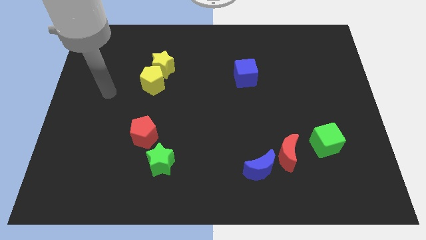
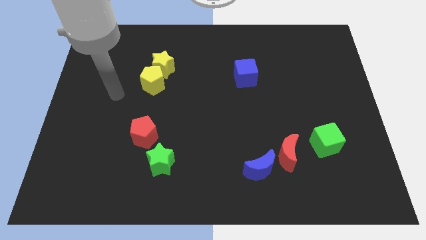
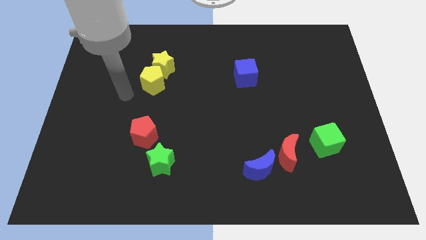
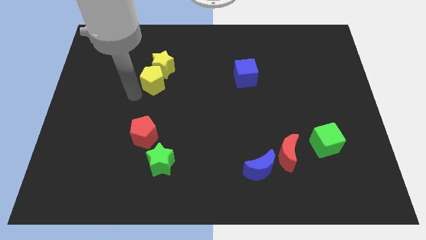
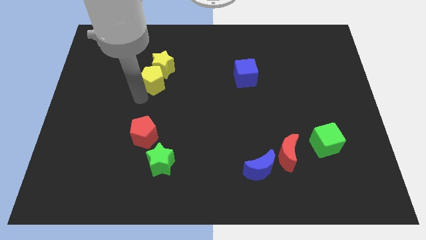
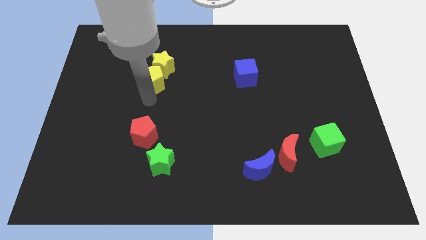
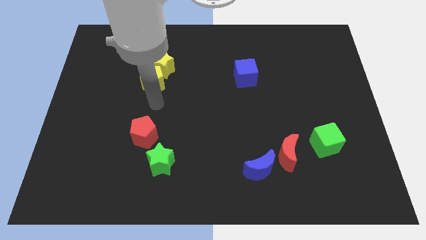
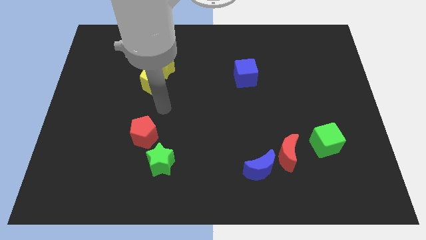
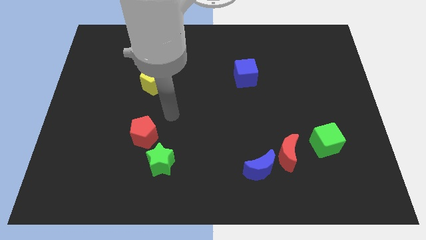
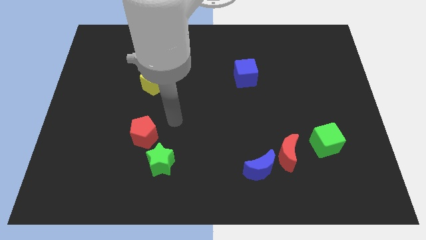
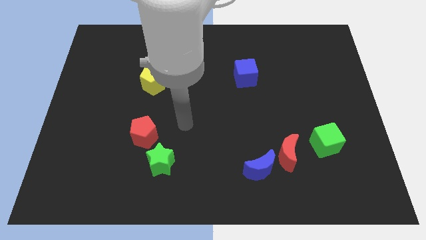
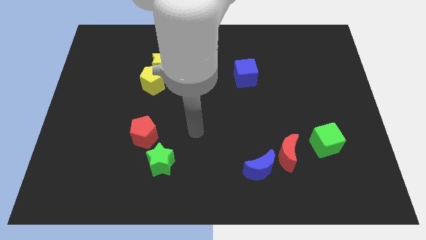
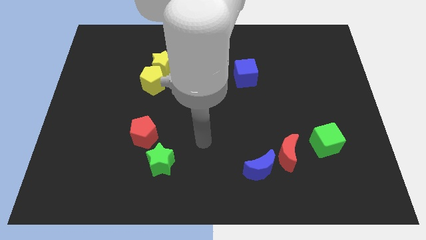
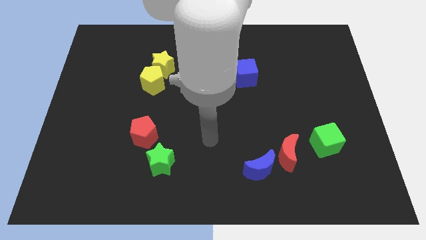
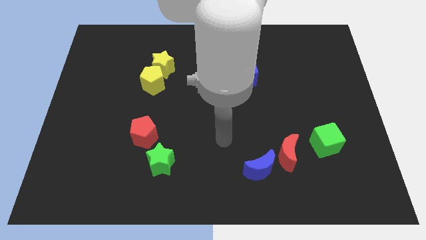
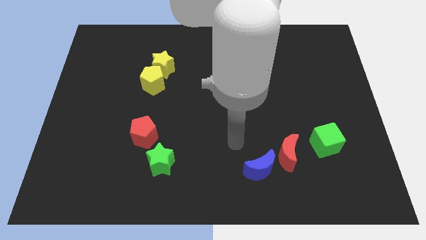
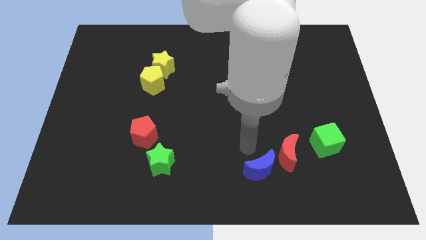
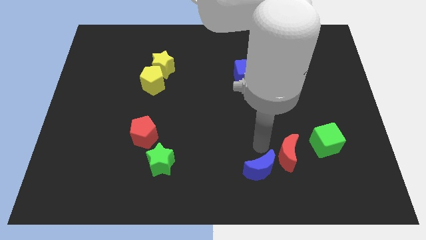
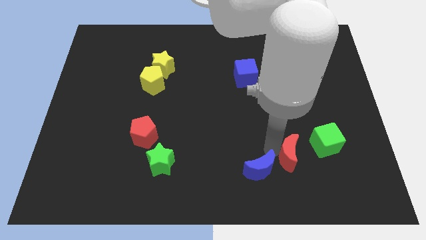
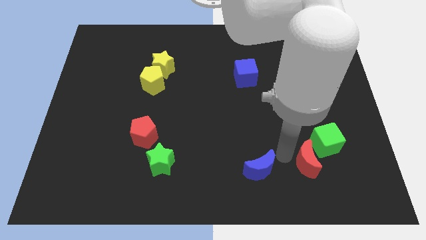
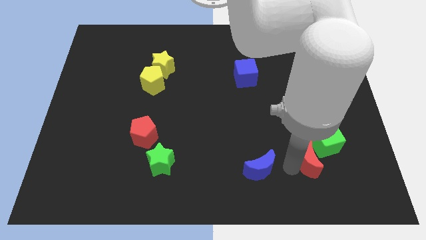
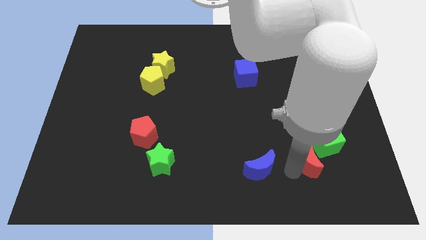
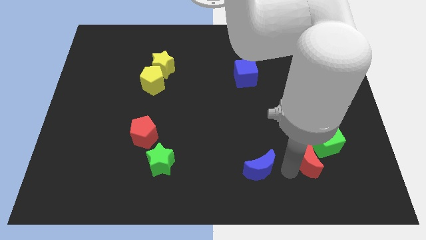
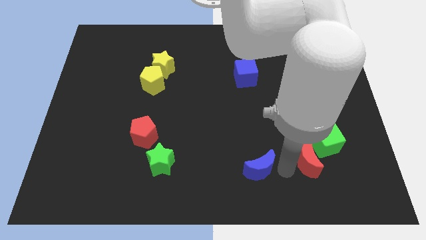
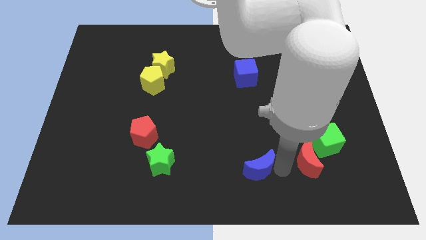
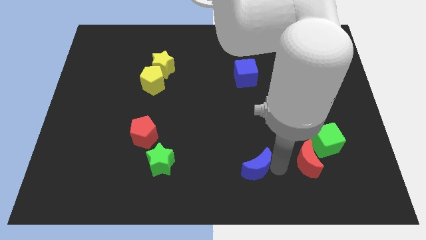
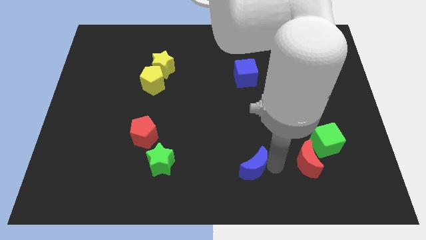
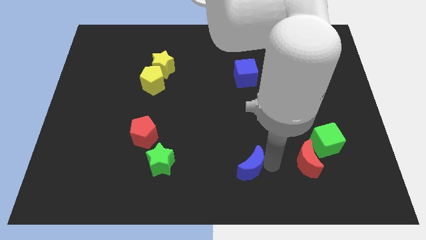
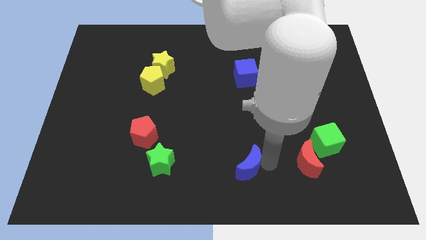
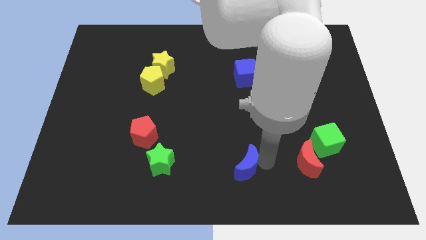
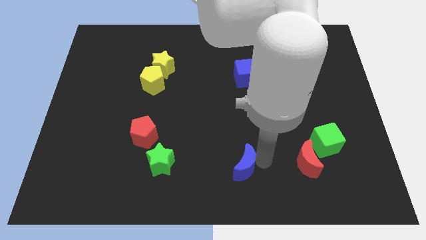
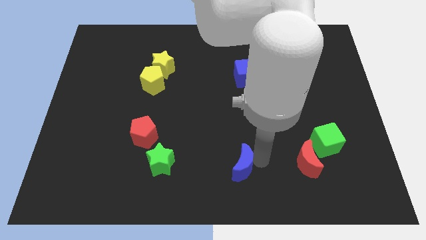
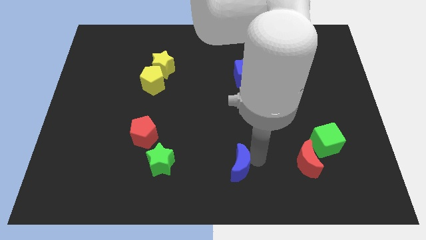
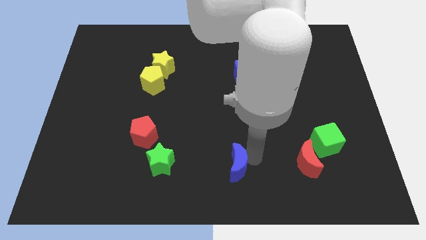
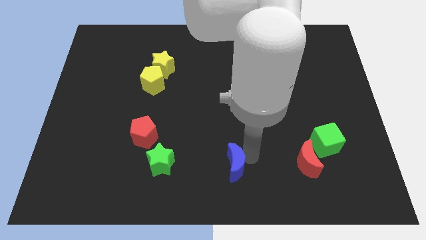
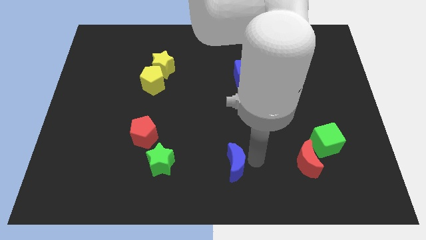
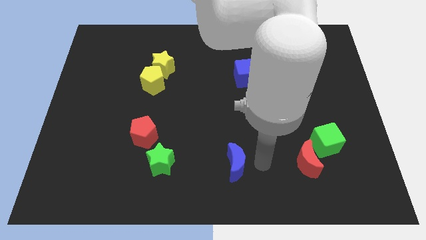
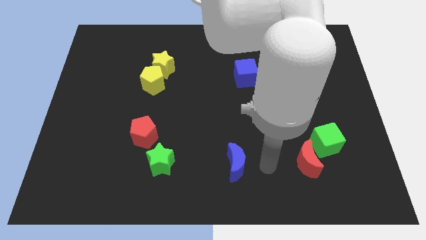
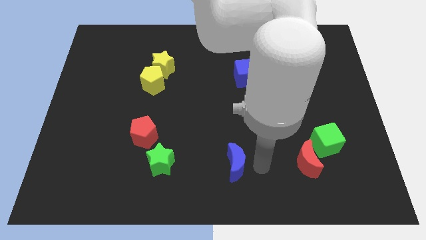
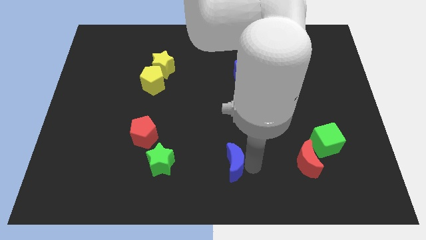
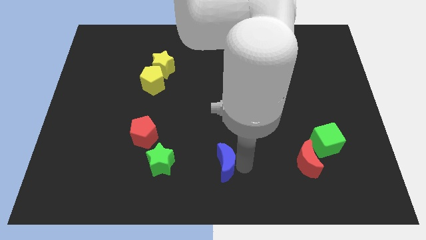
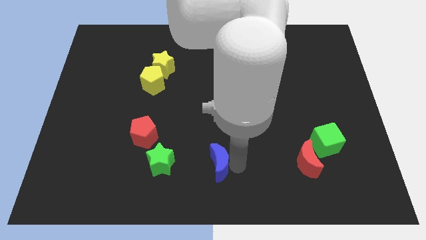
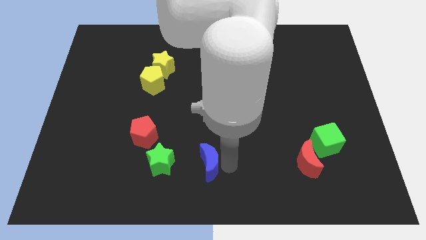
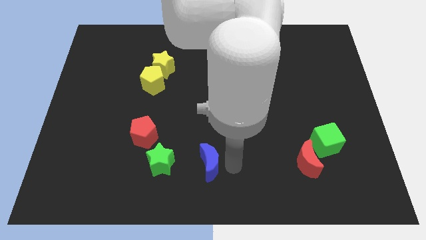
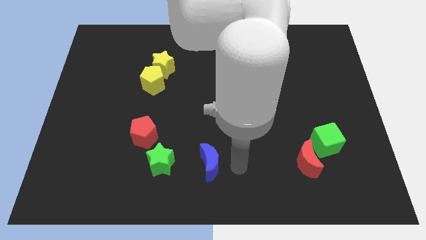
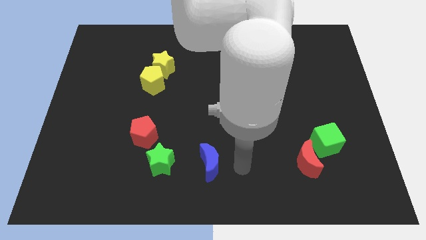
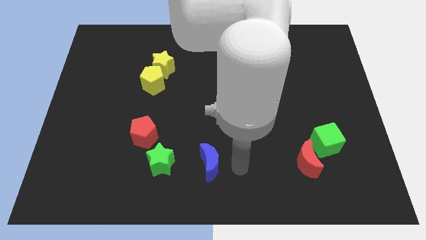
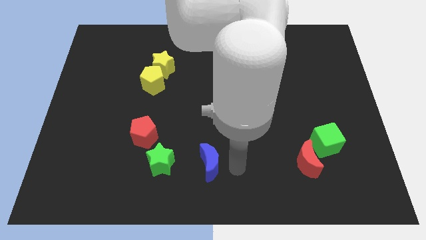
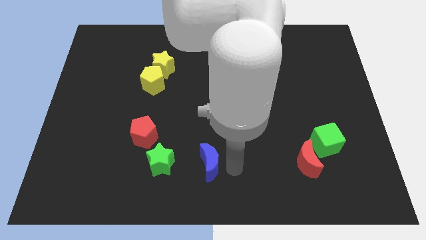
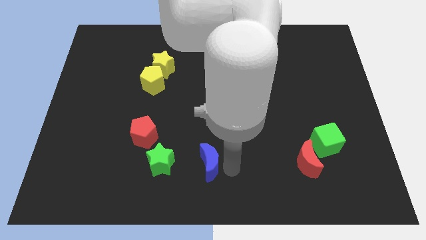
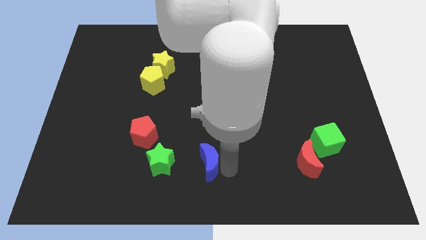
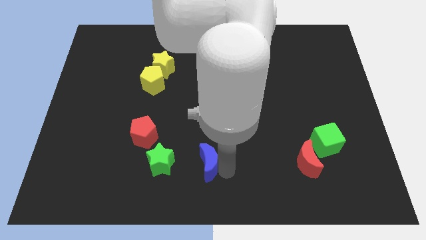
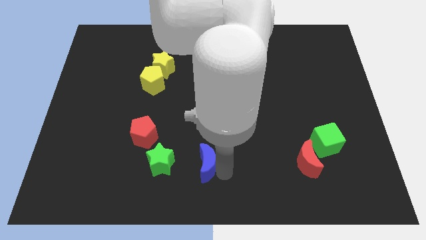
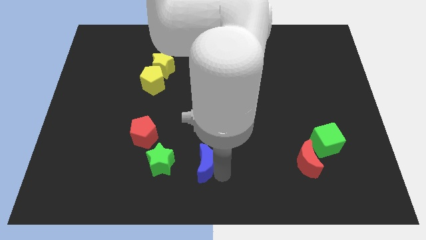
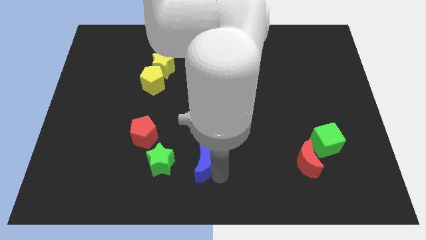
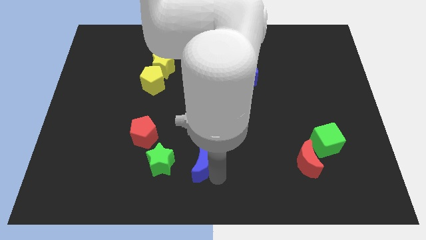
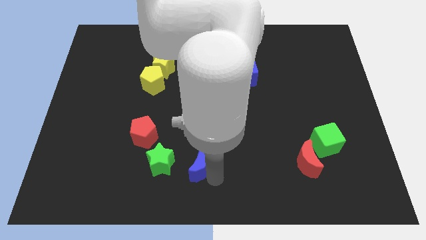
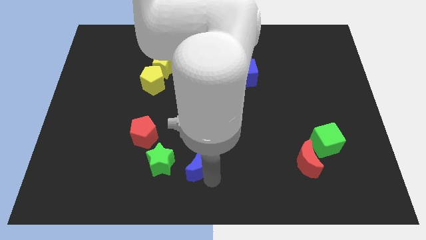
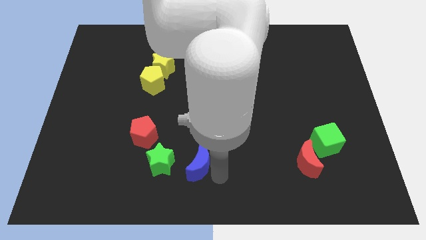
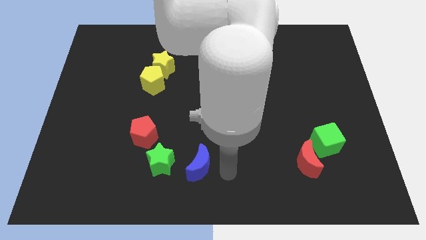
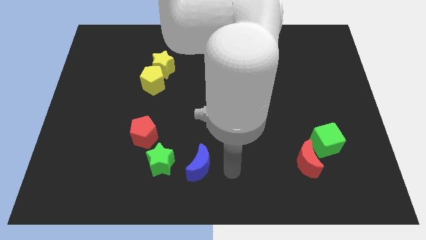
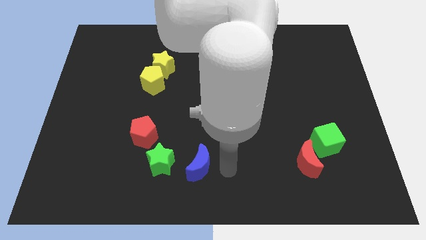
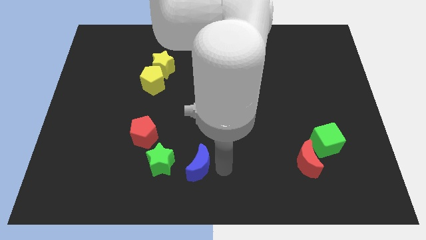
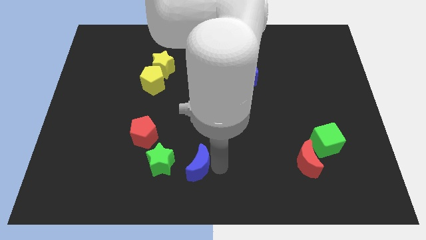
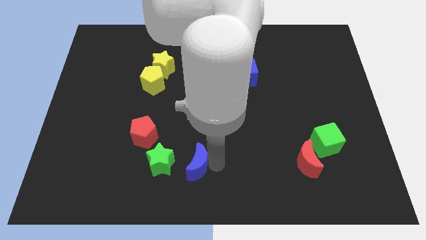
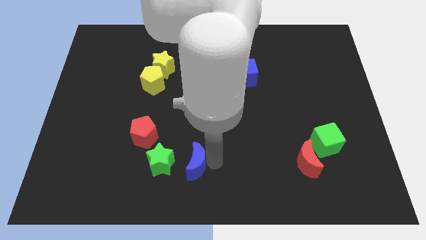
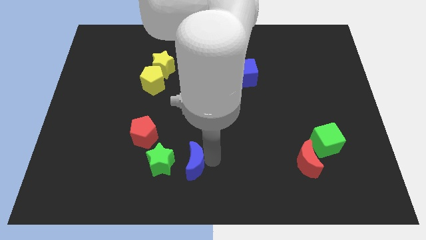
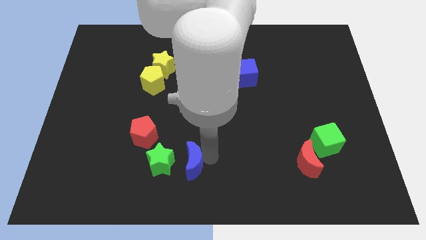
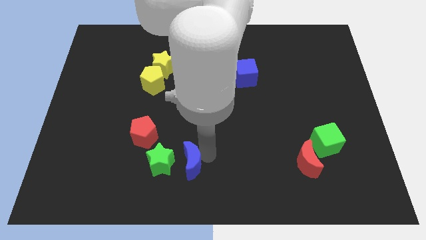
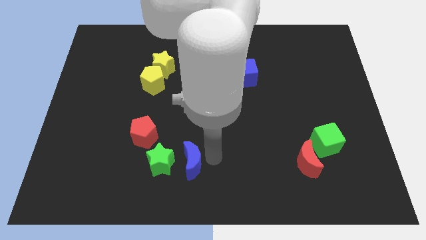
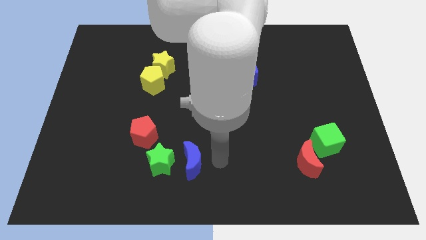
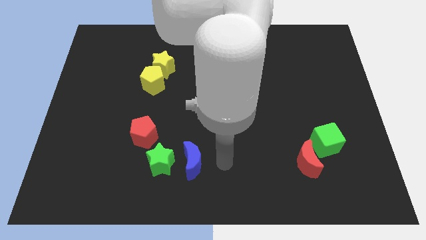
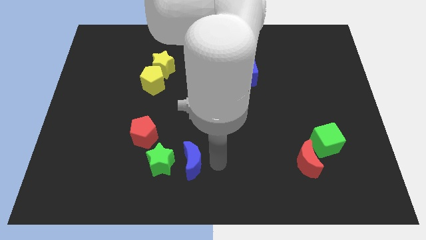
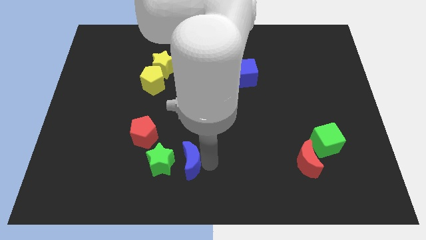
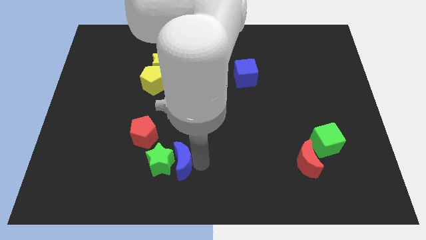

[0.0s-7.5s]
put the blue moon to the green star

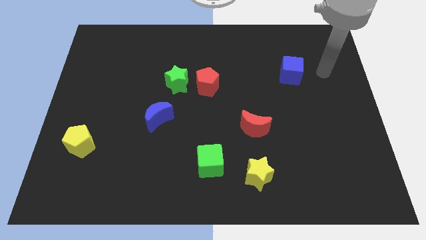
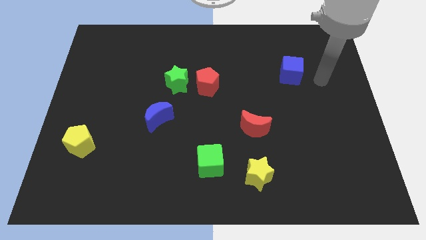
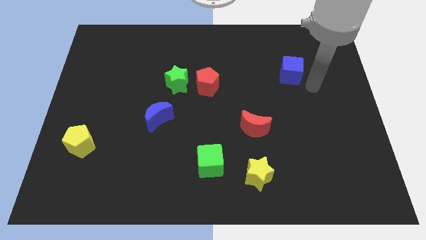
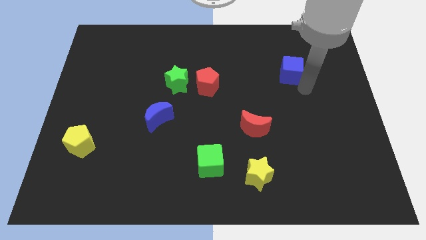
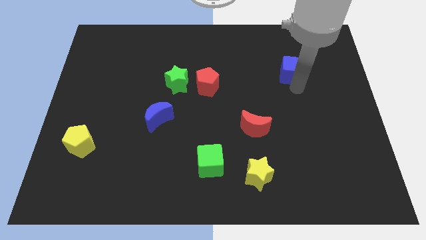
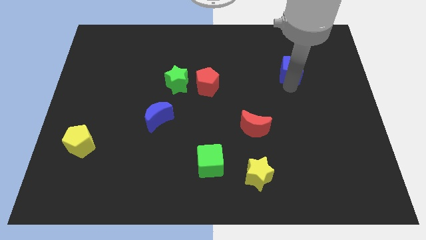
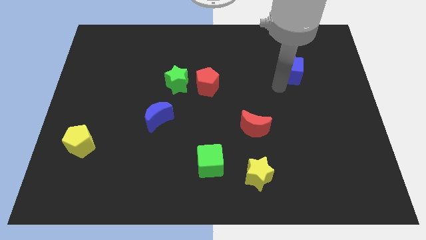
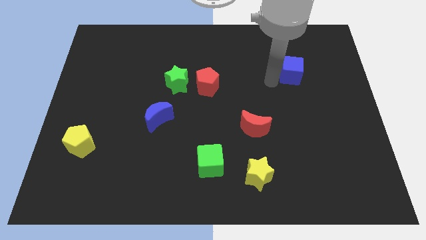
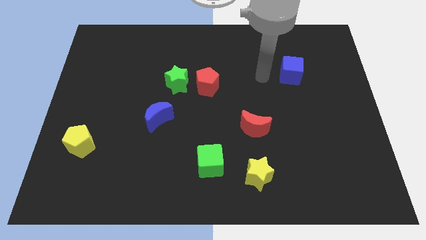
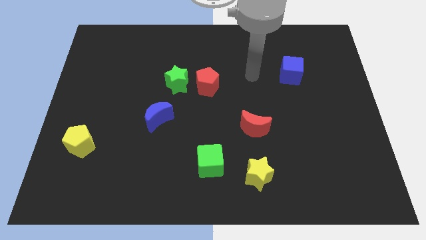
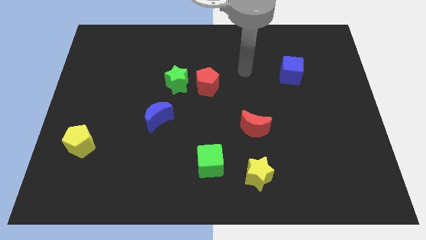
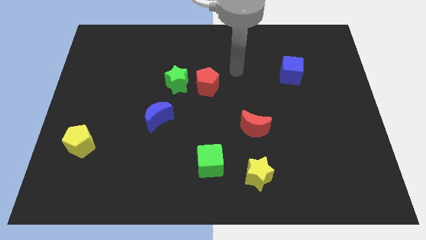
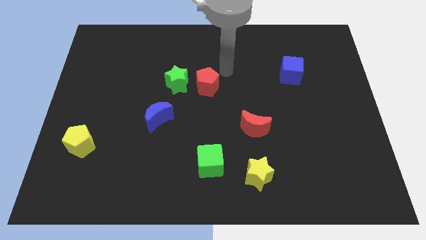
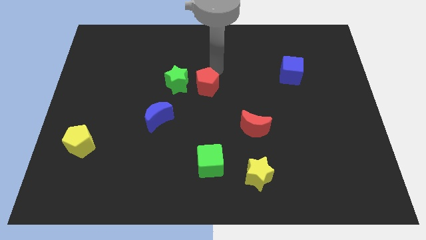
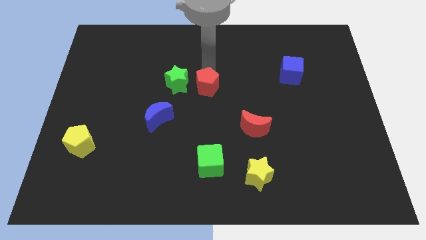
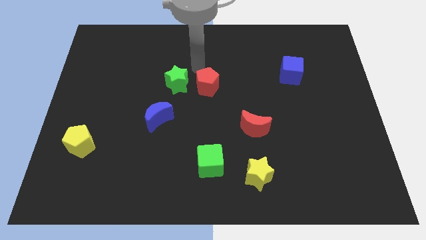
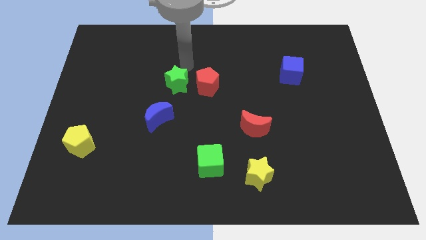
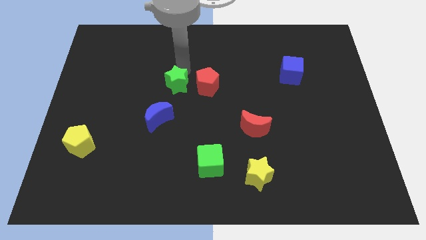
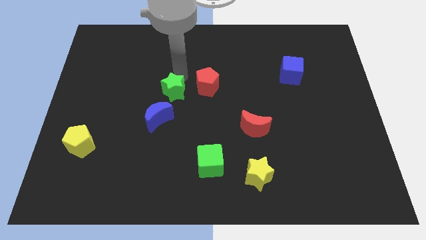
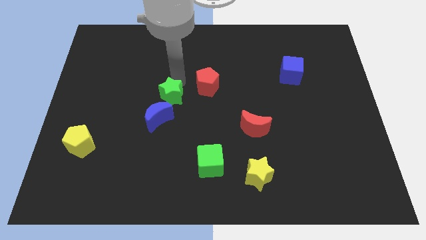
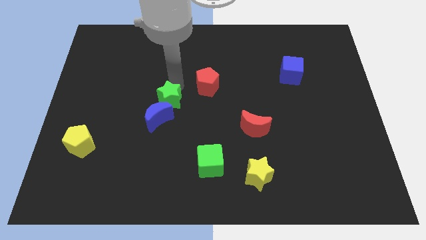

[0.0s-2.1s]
move the green star to the blue moon
